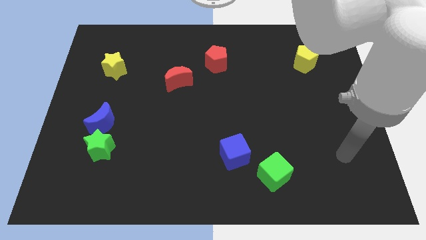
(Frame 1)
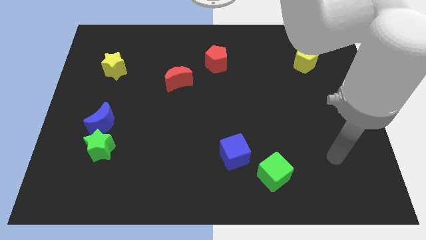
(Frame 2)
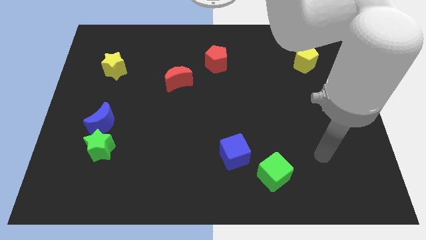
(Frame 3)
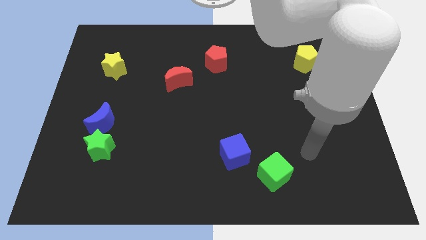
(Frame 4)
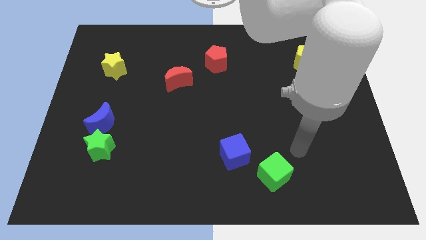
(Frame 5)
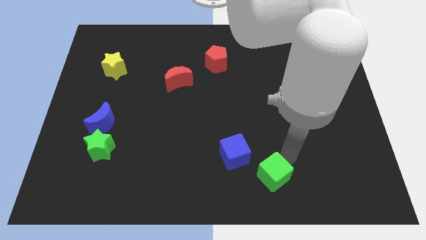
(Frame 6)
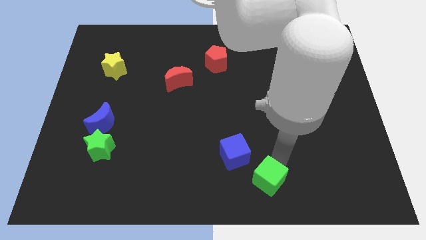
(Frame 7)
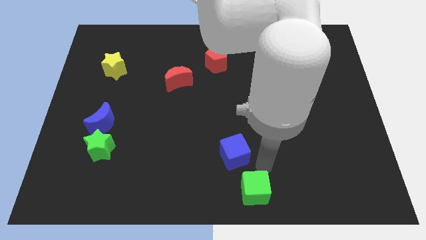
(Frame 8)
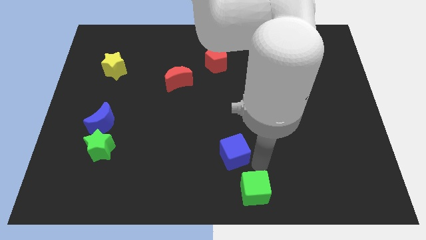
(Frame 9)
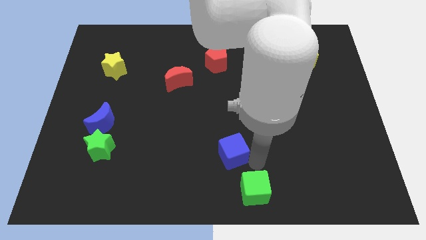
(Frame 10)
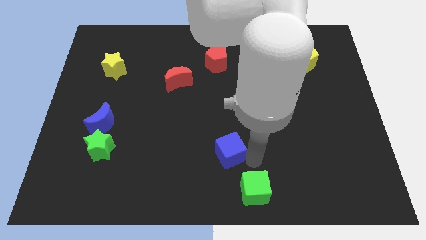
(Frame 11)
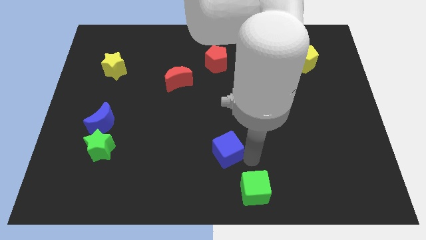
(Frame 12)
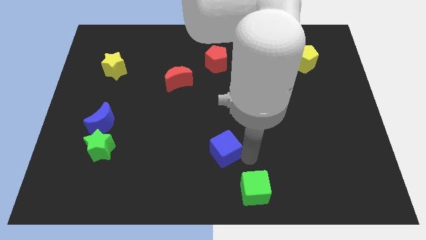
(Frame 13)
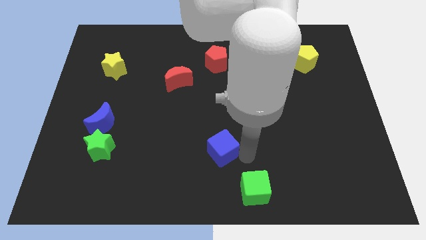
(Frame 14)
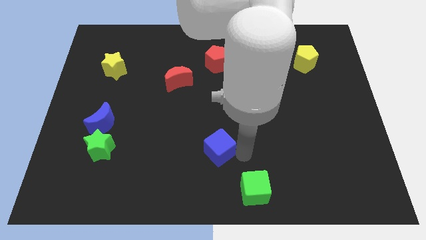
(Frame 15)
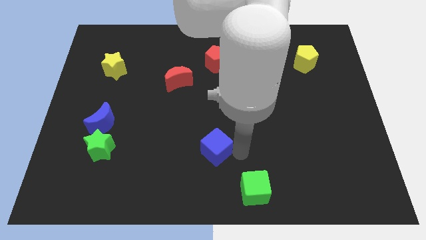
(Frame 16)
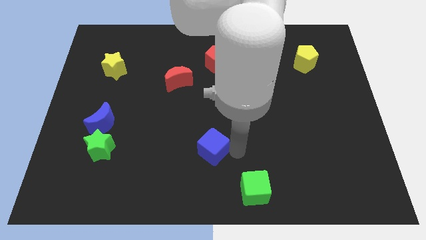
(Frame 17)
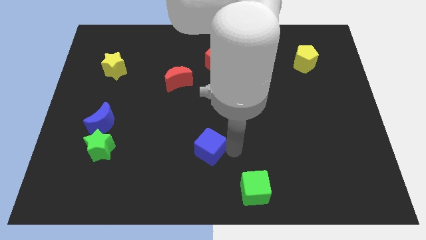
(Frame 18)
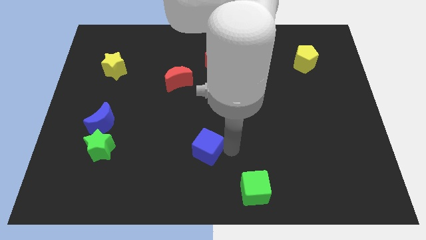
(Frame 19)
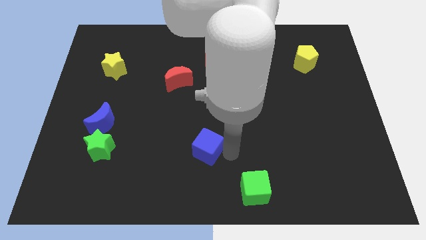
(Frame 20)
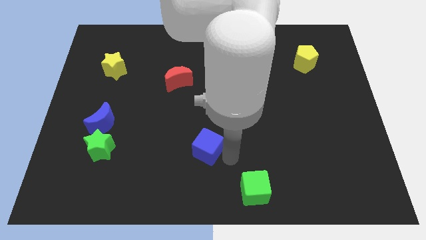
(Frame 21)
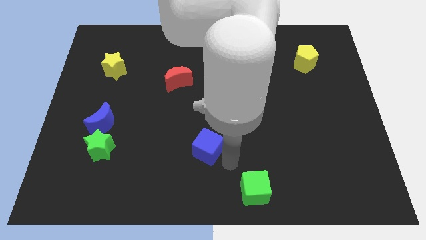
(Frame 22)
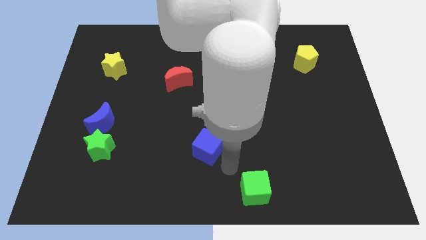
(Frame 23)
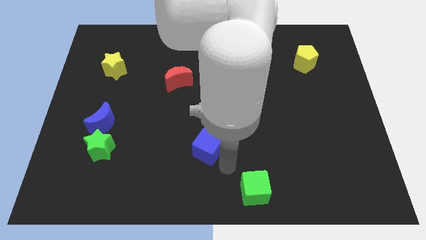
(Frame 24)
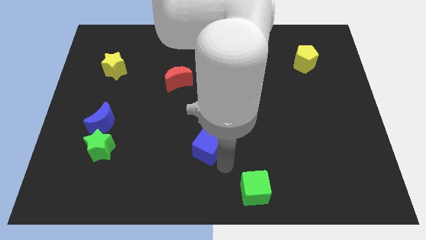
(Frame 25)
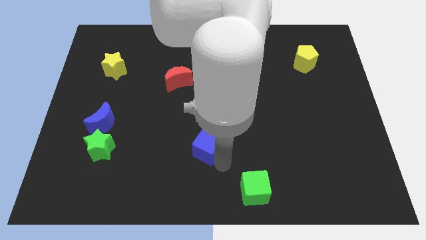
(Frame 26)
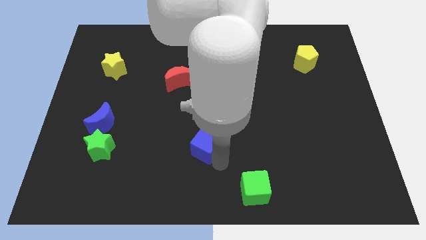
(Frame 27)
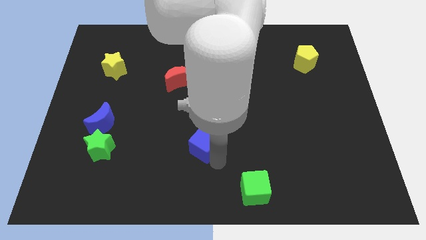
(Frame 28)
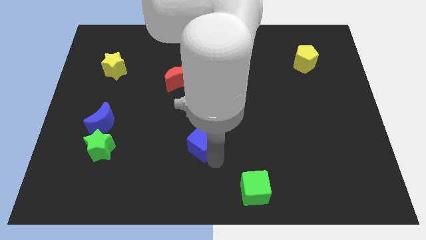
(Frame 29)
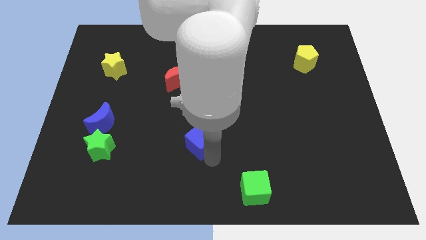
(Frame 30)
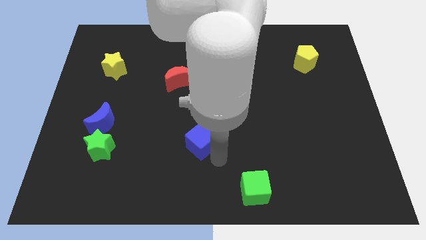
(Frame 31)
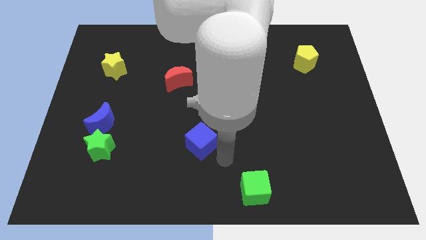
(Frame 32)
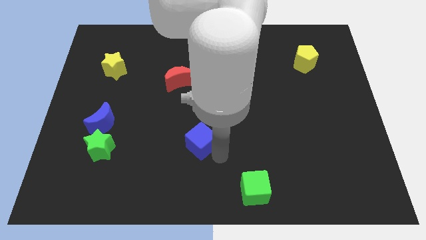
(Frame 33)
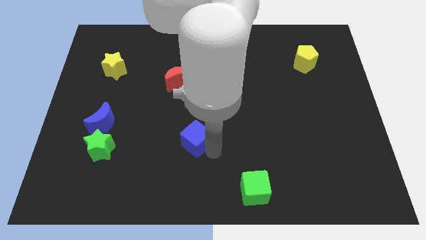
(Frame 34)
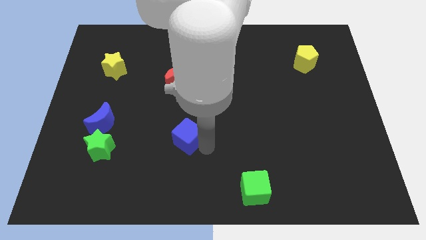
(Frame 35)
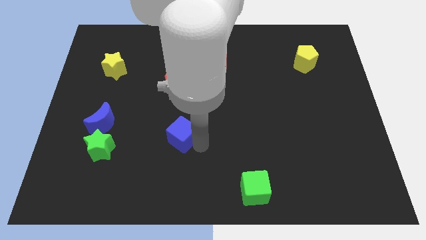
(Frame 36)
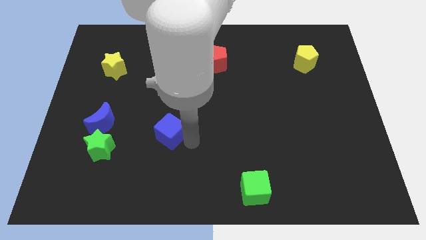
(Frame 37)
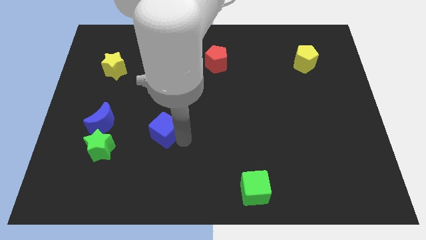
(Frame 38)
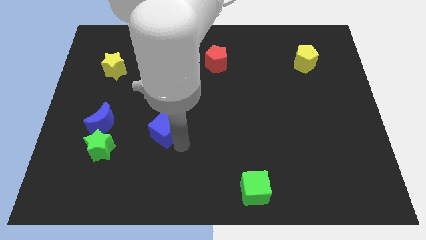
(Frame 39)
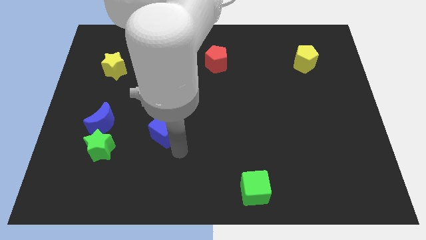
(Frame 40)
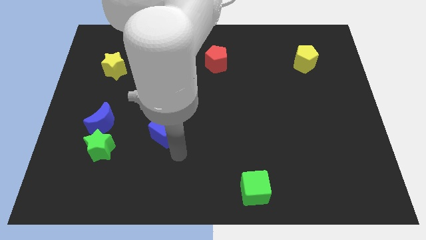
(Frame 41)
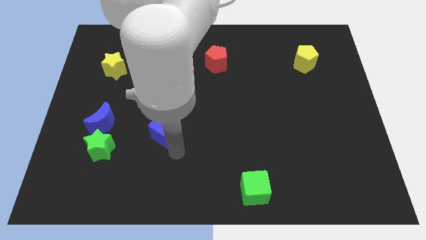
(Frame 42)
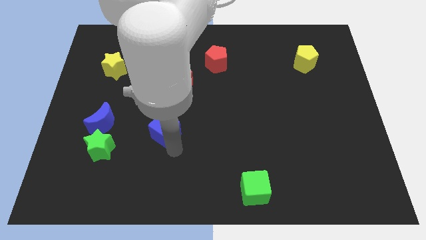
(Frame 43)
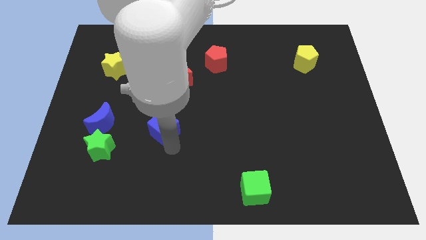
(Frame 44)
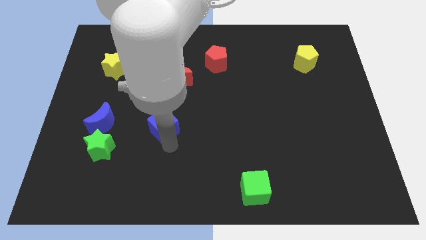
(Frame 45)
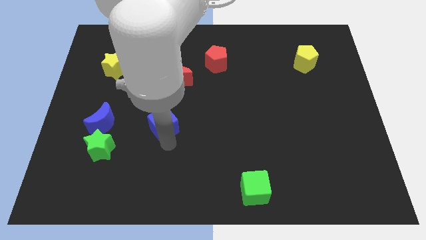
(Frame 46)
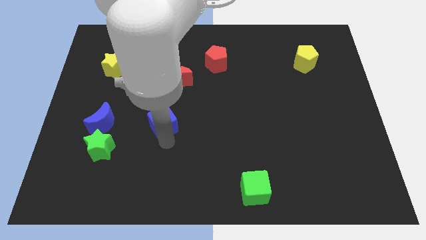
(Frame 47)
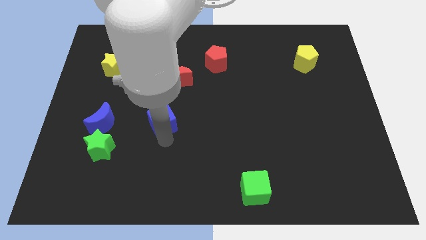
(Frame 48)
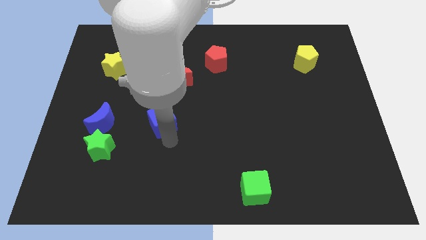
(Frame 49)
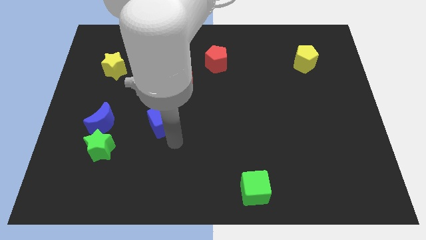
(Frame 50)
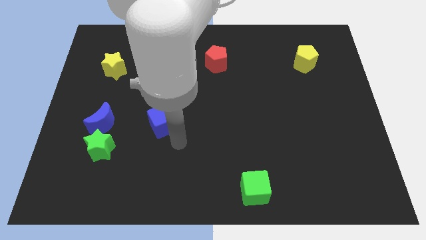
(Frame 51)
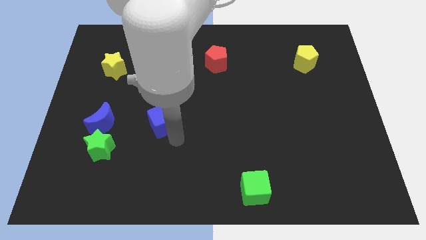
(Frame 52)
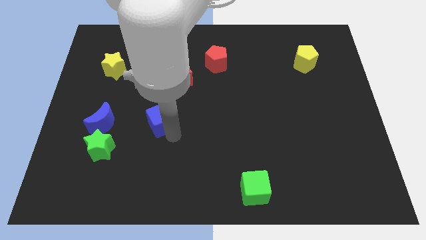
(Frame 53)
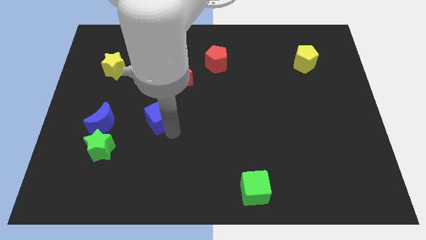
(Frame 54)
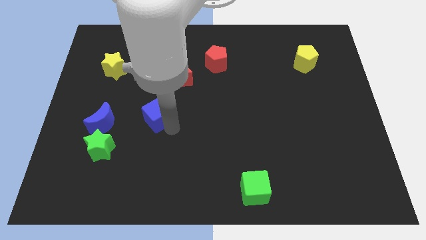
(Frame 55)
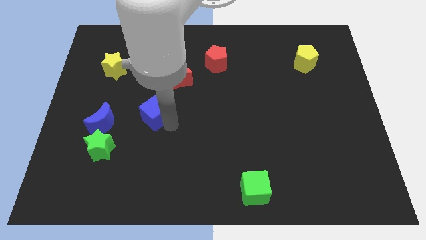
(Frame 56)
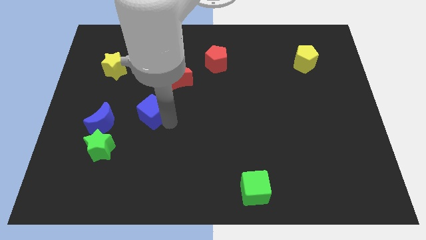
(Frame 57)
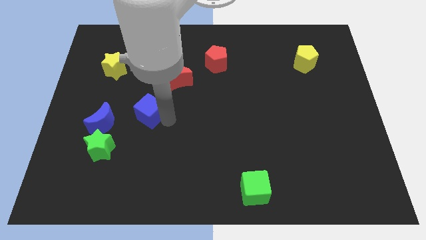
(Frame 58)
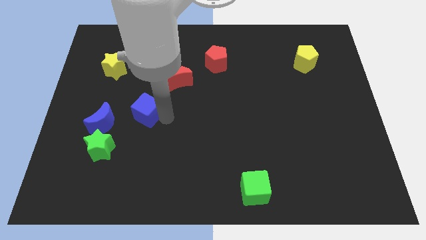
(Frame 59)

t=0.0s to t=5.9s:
slide the blue cube to the top right of the blue moon

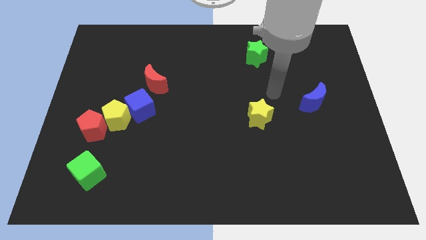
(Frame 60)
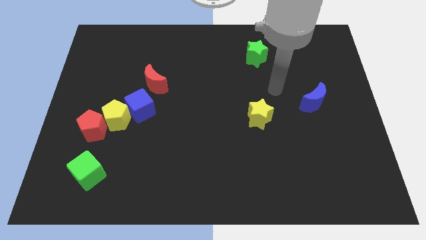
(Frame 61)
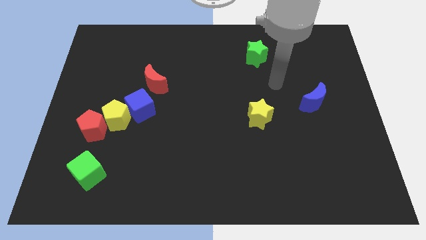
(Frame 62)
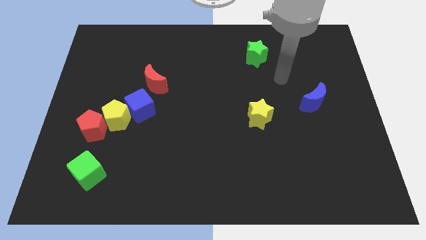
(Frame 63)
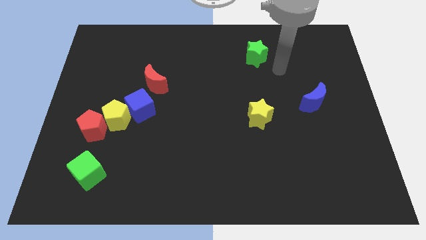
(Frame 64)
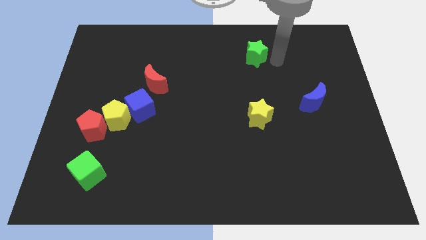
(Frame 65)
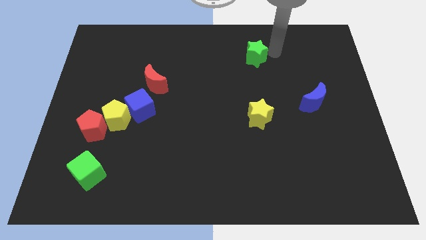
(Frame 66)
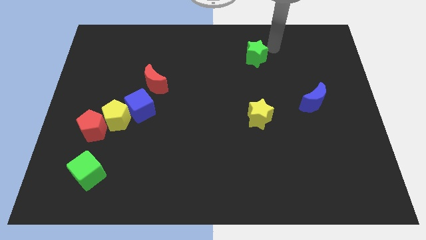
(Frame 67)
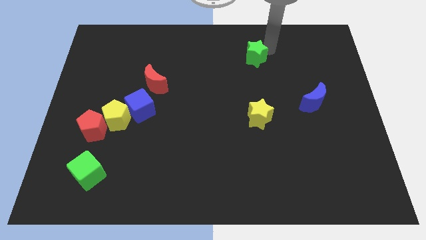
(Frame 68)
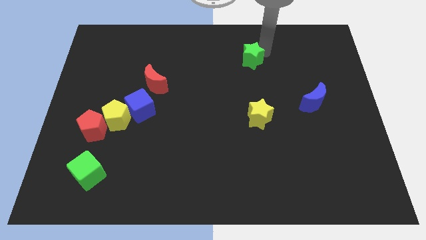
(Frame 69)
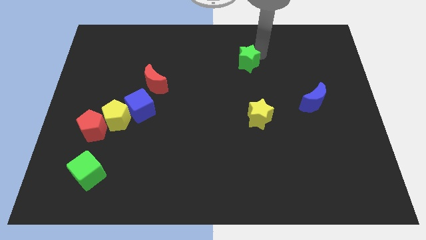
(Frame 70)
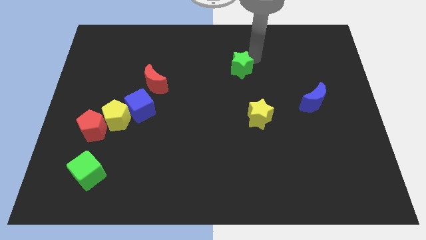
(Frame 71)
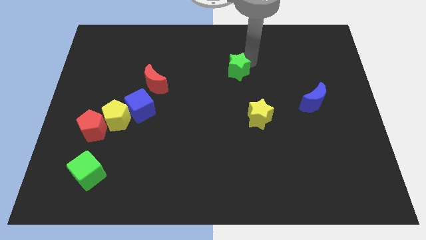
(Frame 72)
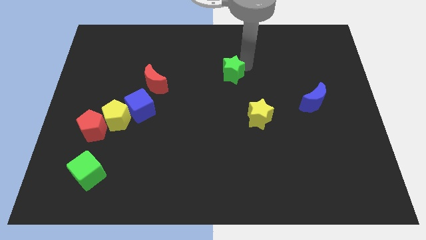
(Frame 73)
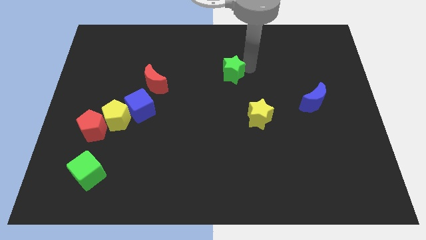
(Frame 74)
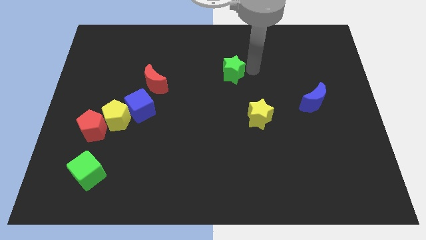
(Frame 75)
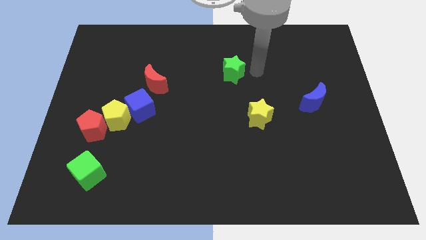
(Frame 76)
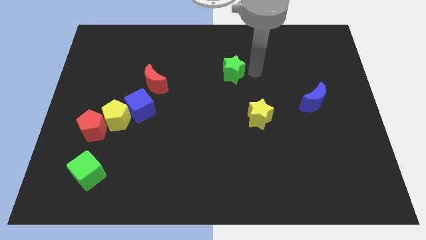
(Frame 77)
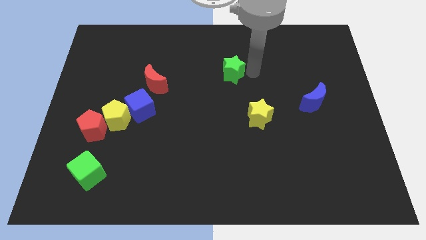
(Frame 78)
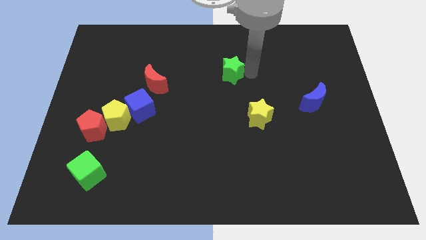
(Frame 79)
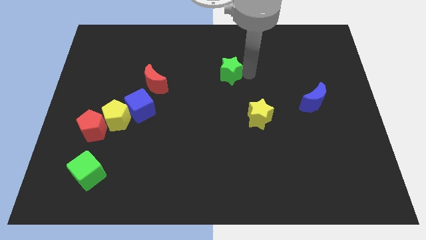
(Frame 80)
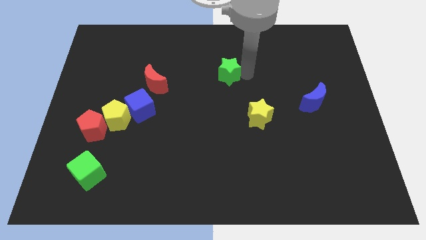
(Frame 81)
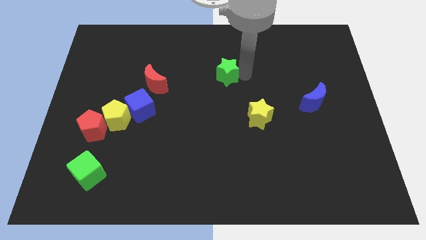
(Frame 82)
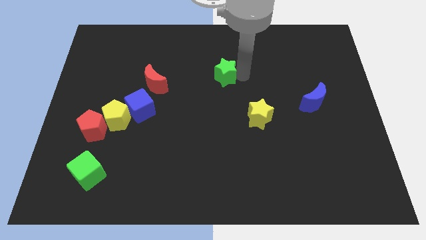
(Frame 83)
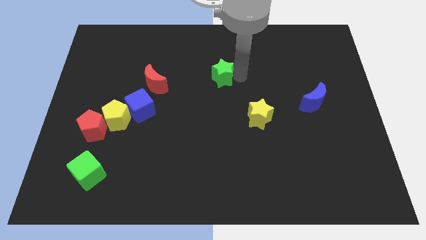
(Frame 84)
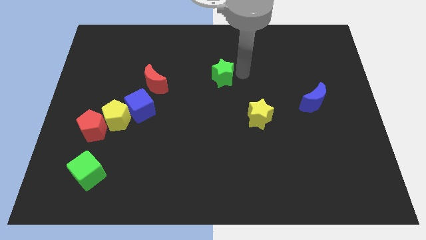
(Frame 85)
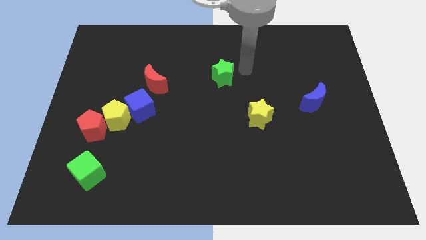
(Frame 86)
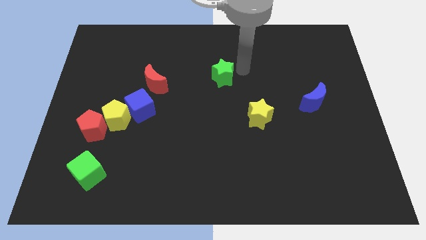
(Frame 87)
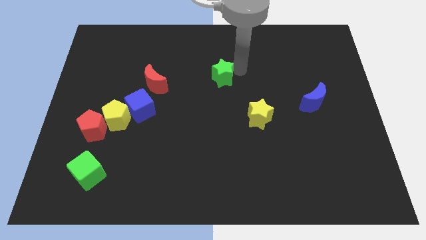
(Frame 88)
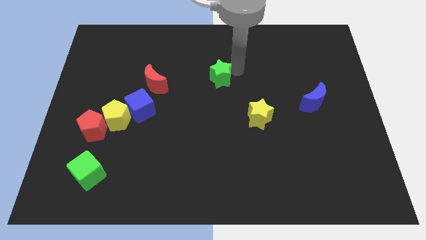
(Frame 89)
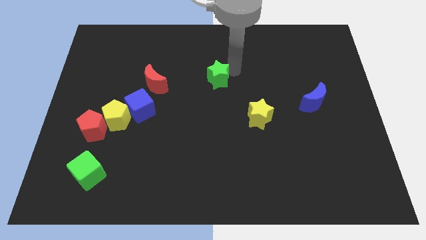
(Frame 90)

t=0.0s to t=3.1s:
push the green star right of the red moon
